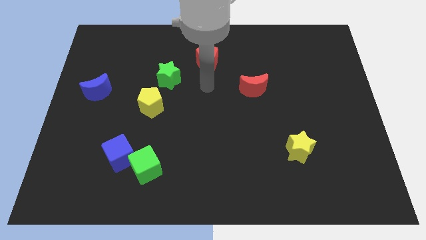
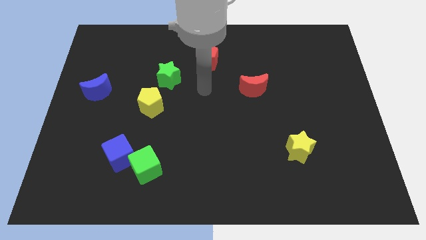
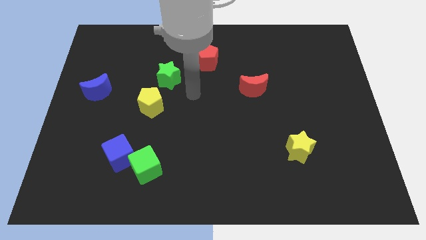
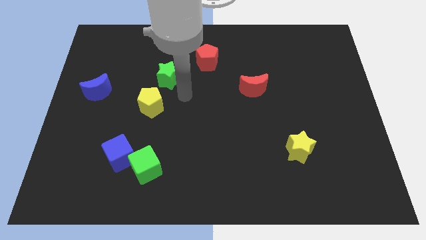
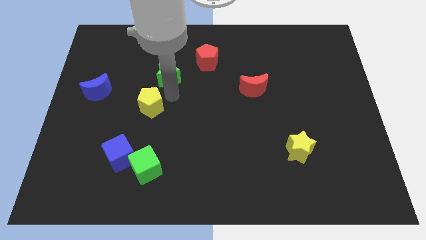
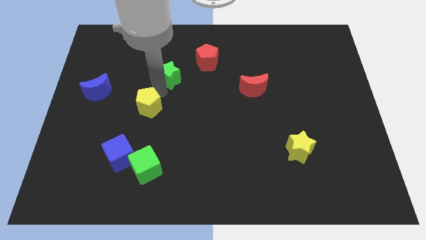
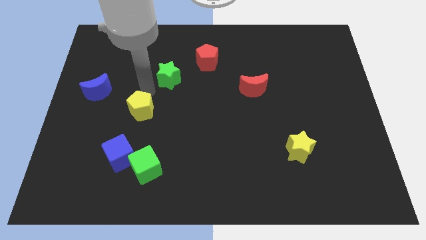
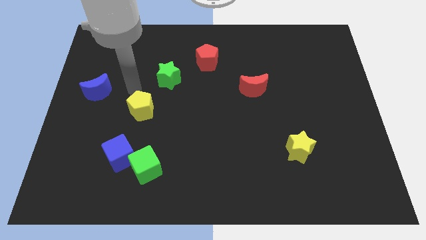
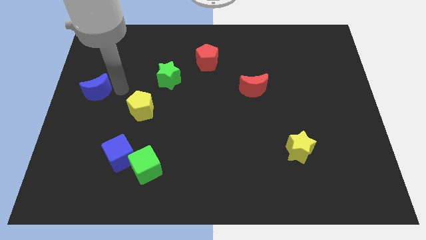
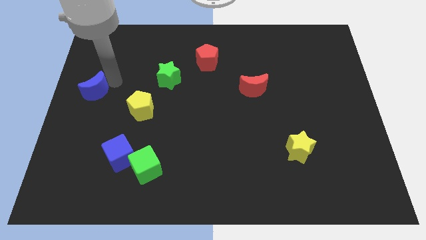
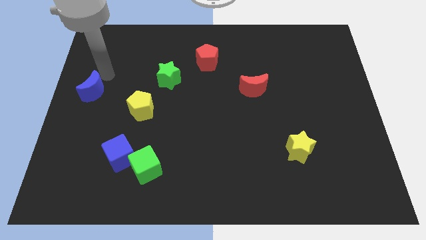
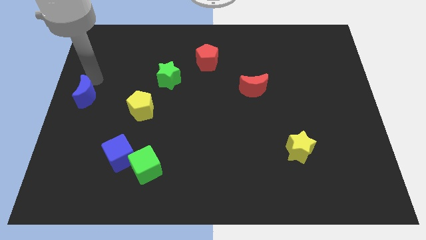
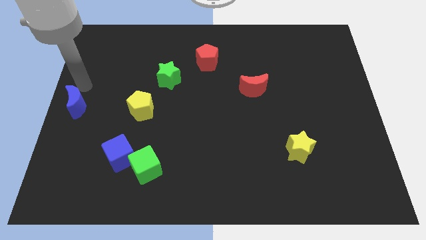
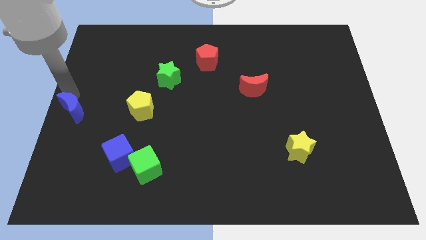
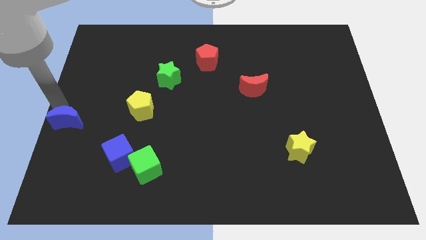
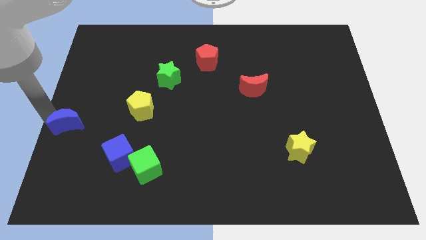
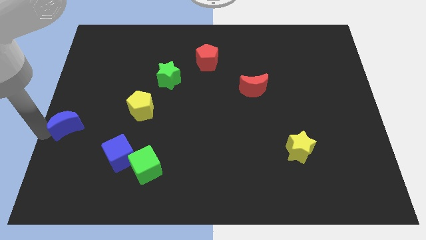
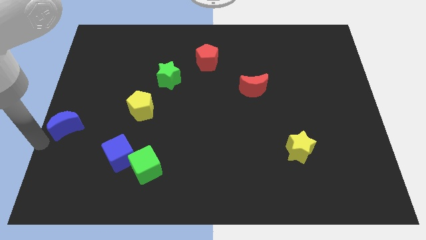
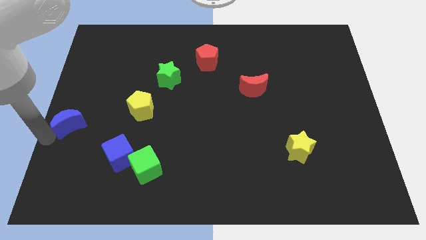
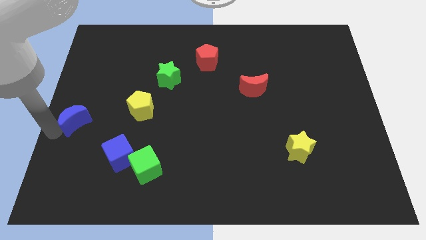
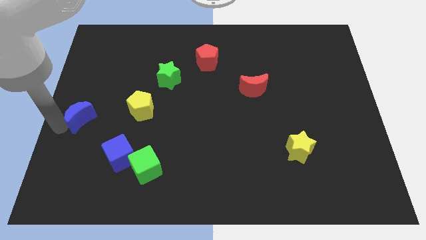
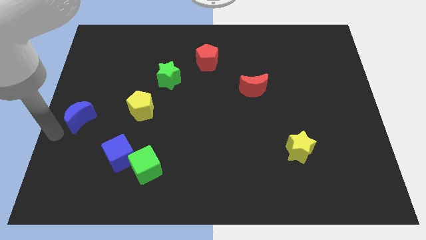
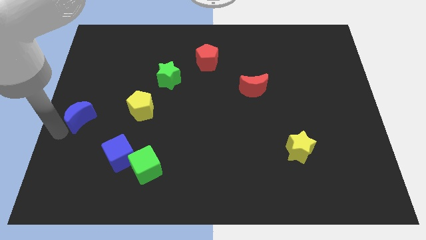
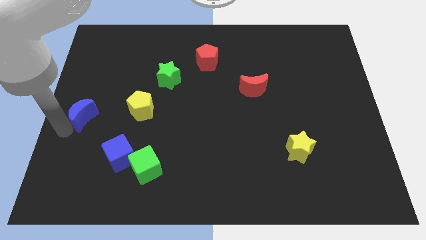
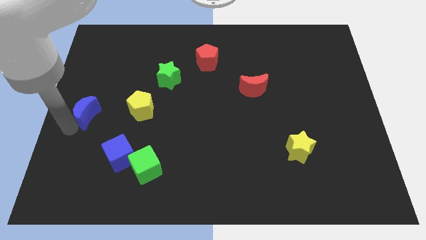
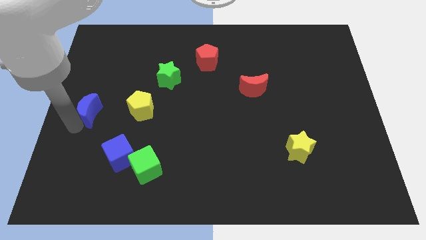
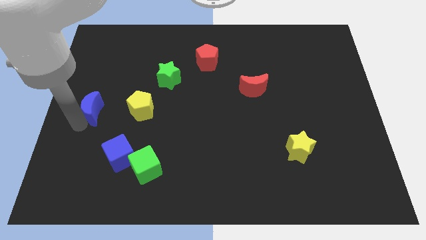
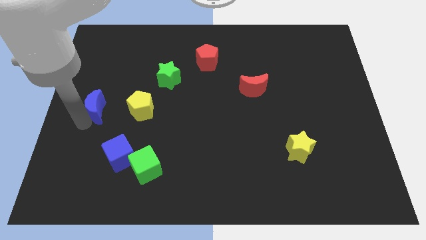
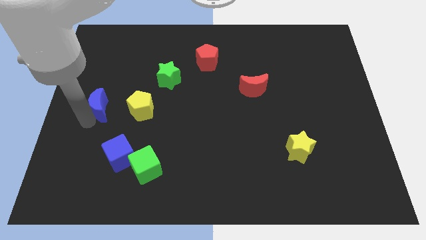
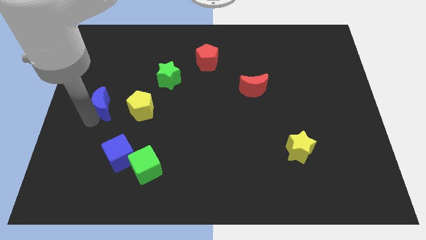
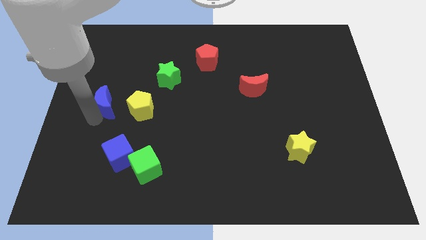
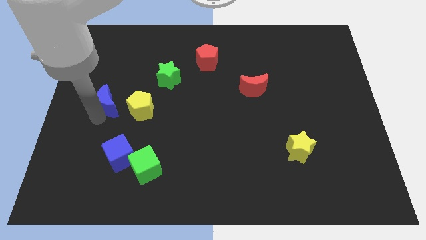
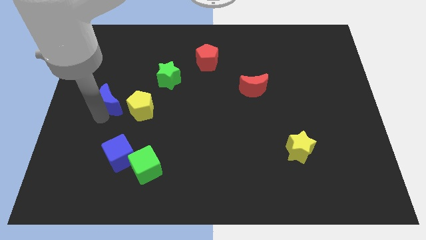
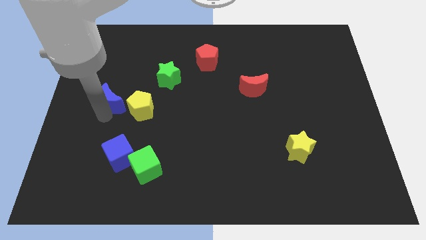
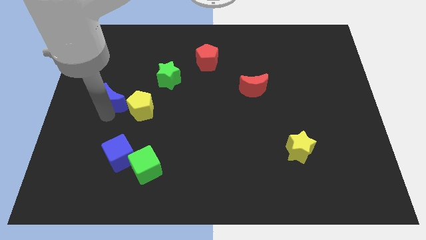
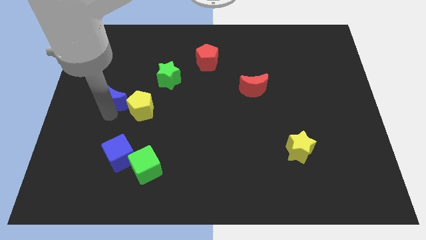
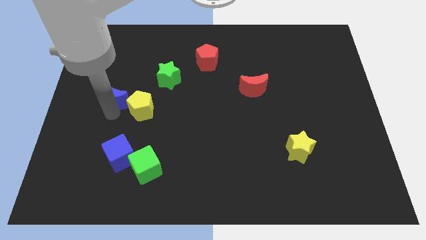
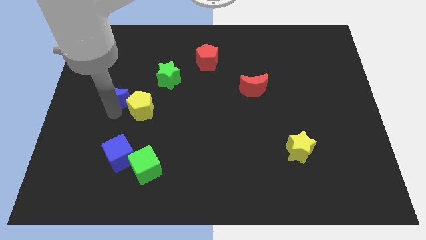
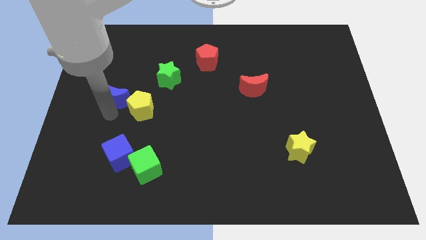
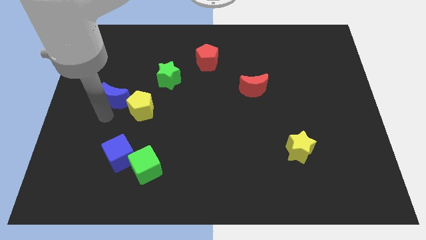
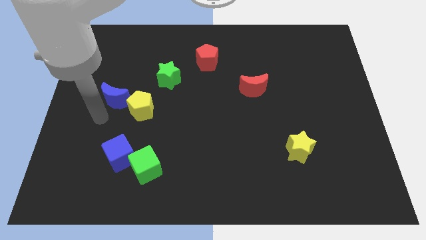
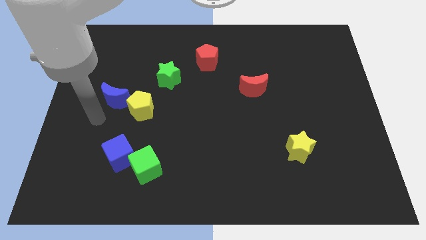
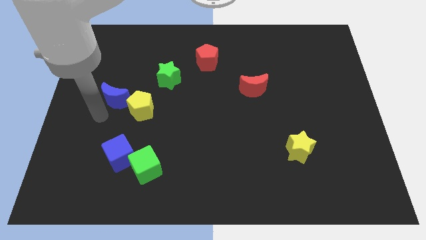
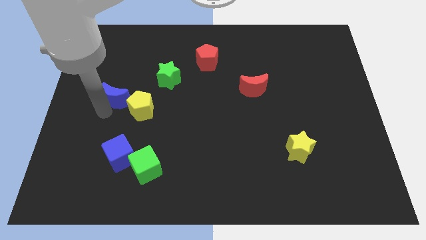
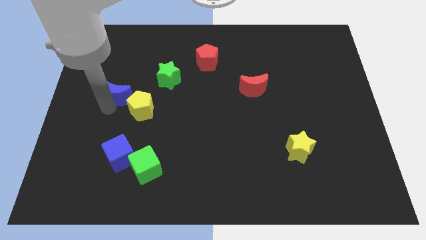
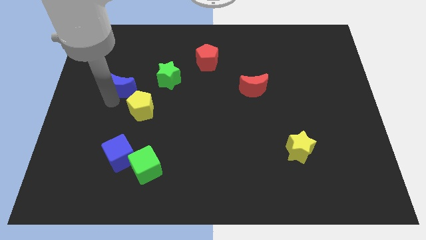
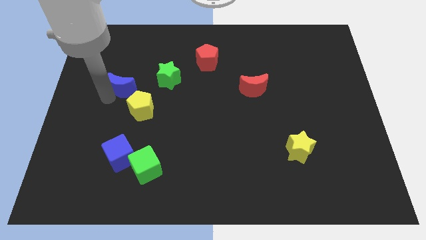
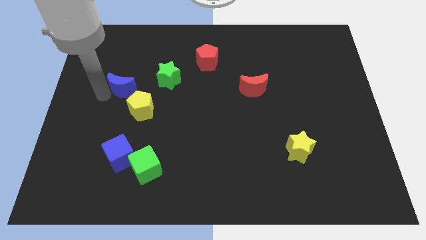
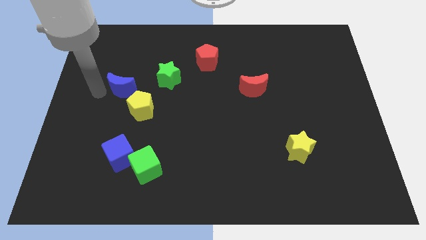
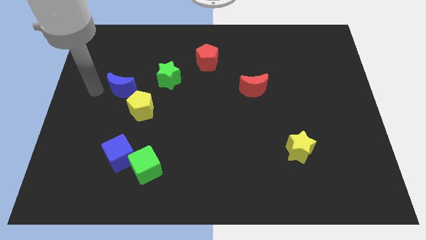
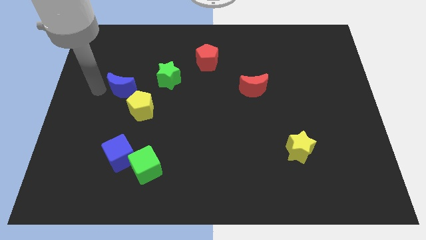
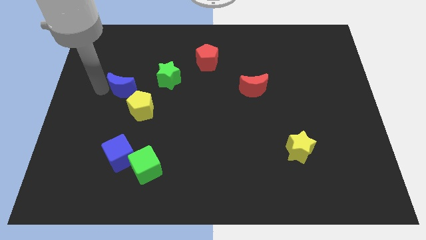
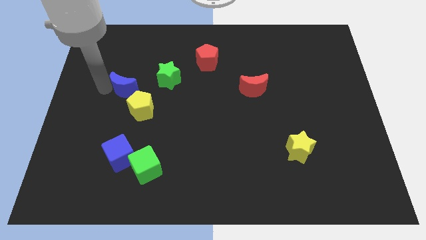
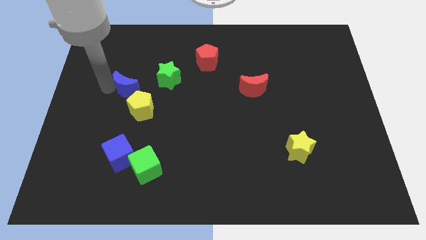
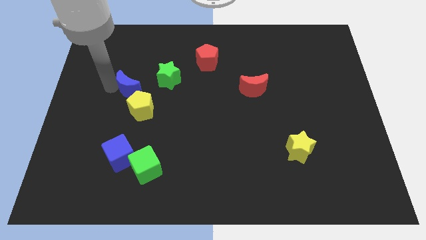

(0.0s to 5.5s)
slightly push the blue moon right

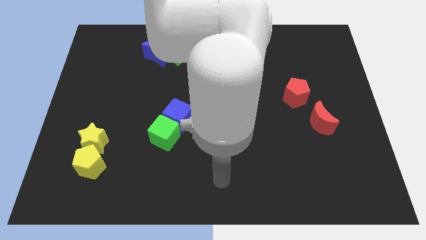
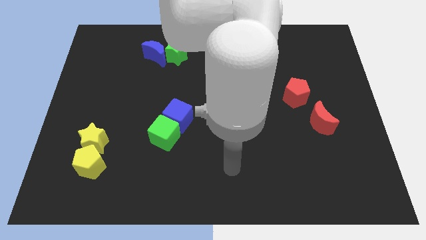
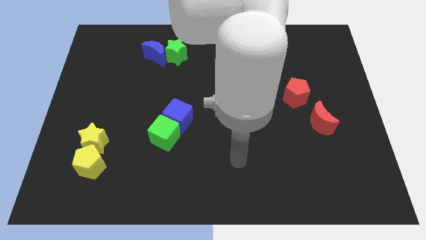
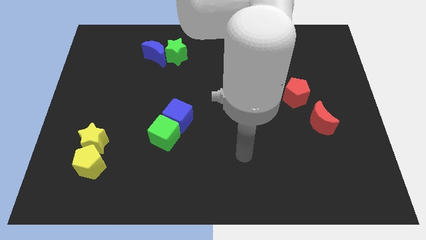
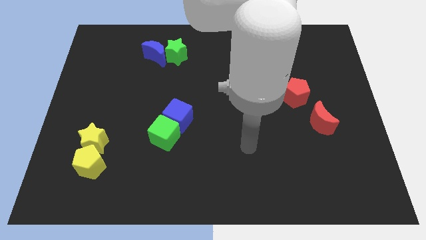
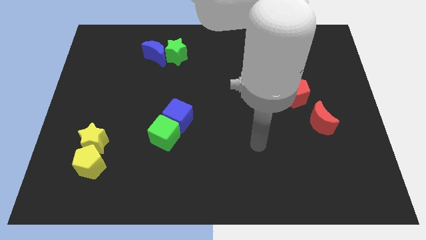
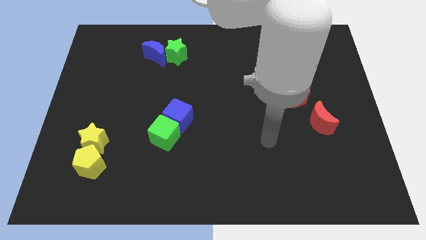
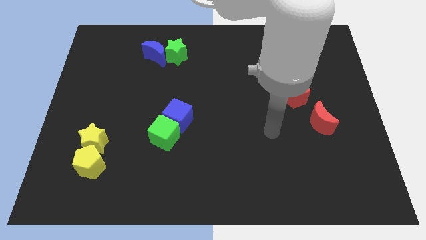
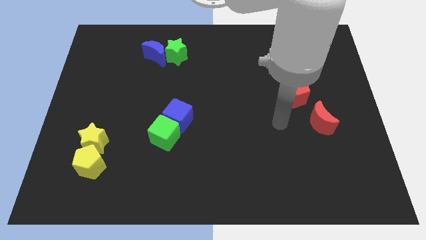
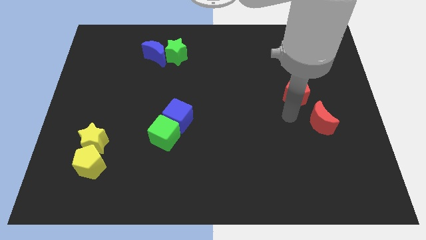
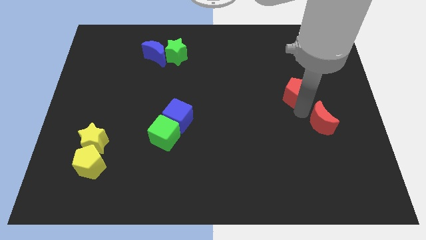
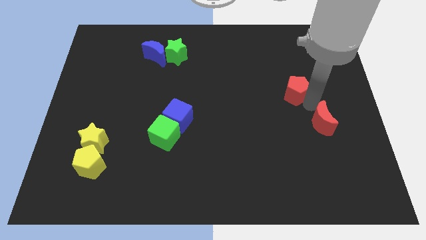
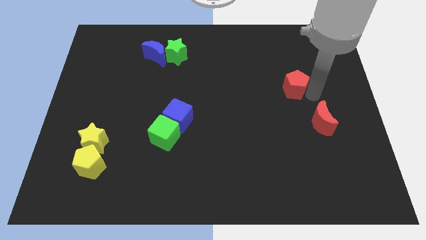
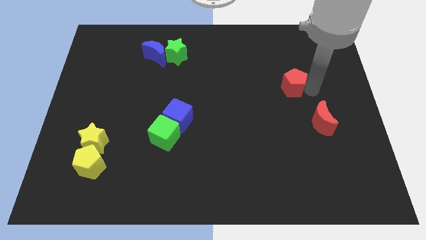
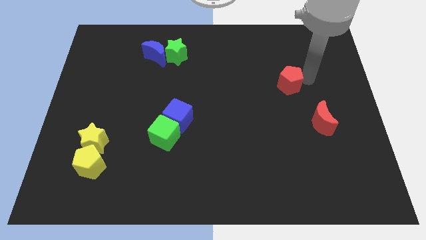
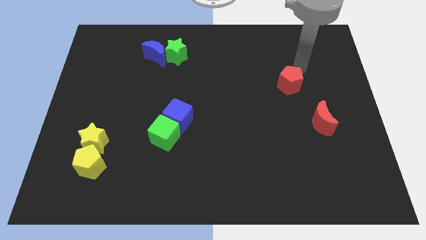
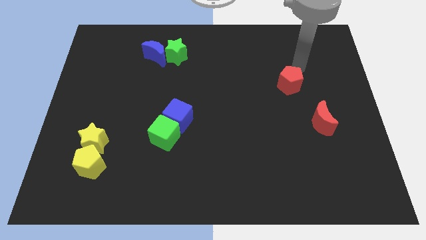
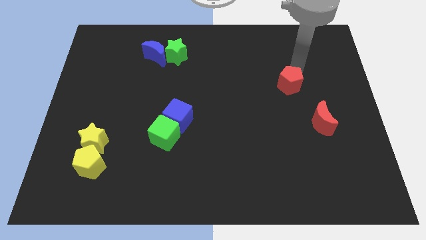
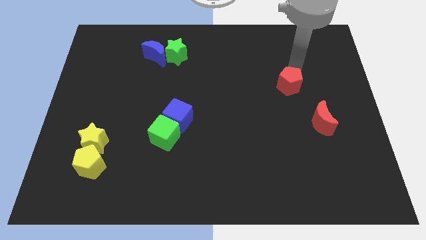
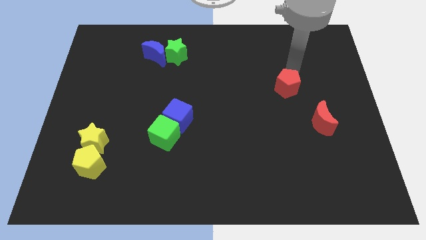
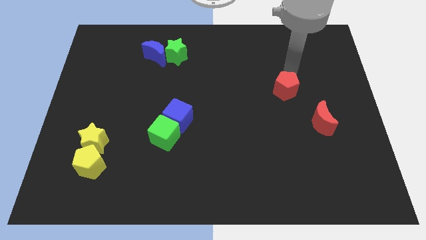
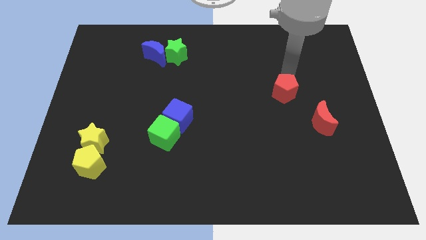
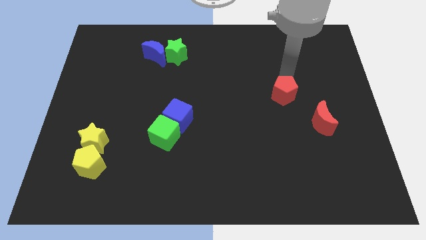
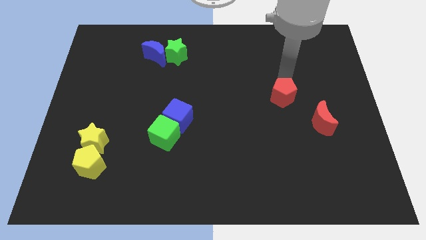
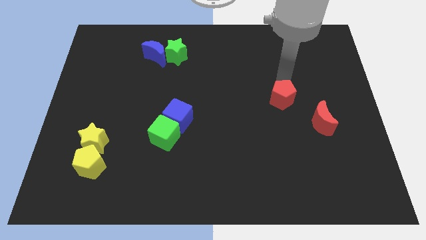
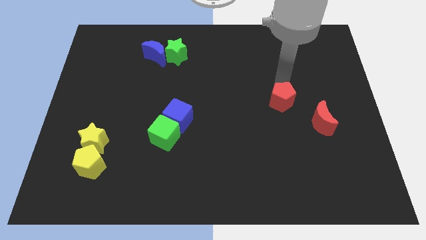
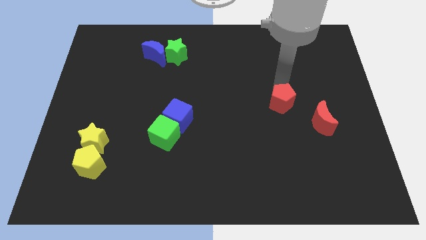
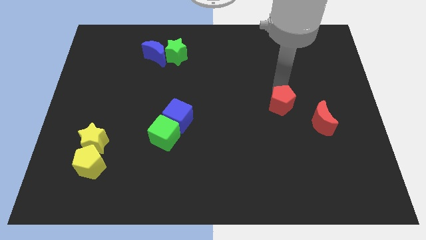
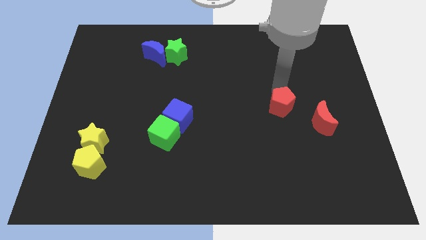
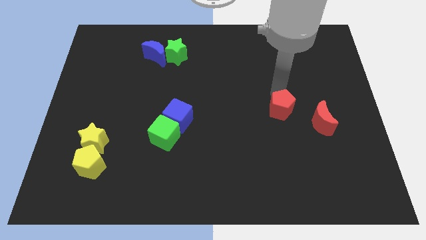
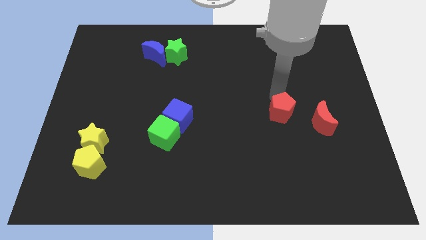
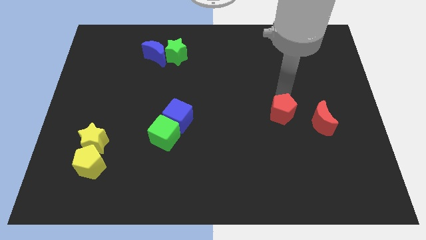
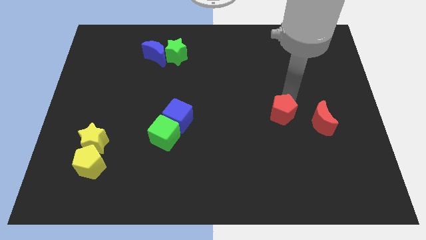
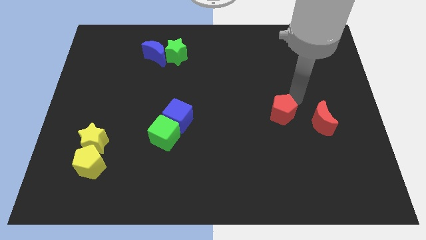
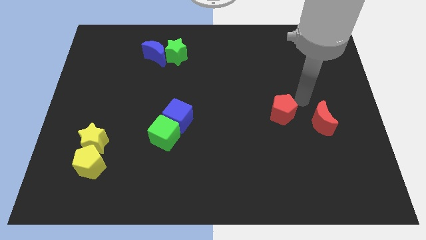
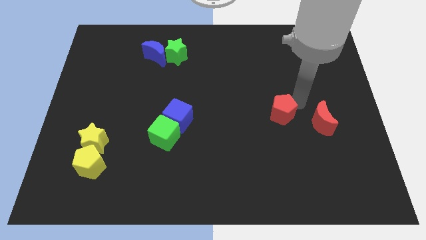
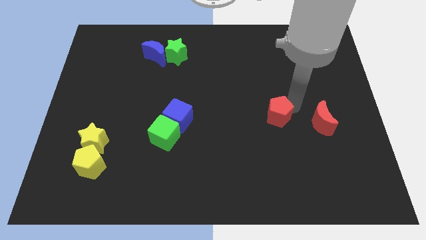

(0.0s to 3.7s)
push the red pentagon a bit downwards and then to the left
